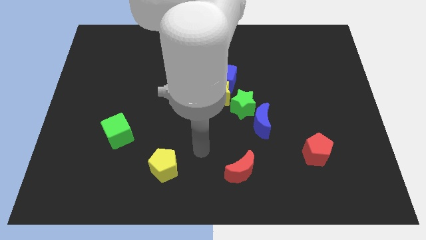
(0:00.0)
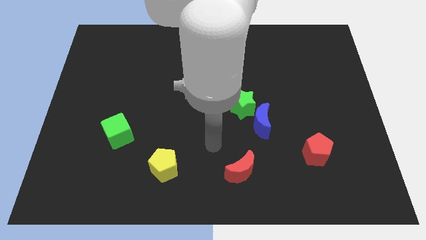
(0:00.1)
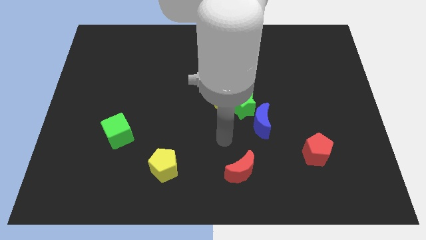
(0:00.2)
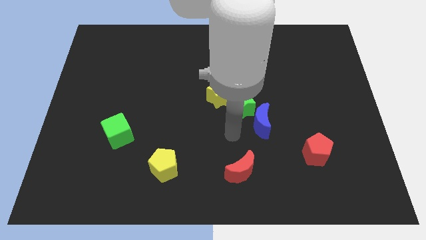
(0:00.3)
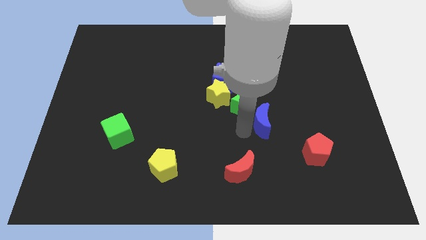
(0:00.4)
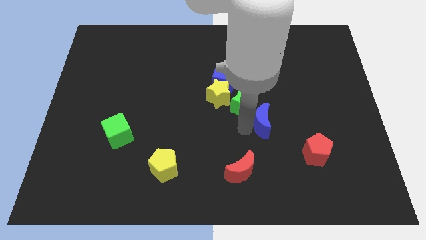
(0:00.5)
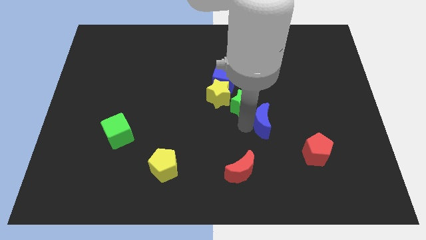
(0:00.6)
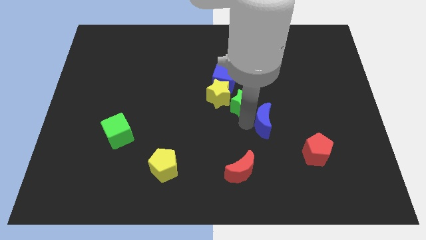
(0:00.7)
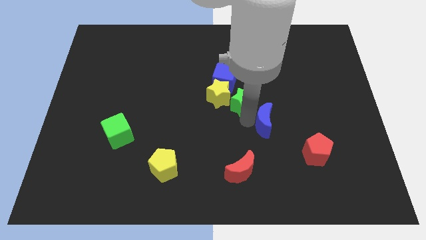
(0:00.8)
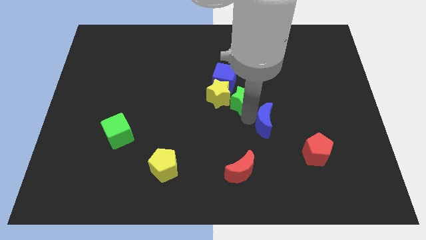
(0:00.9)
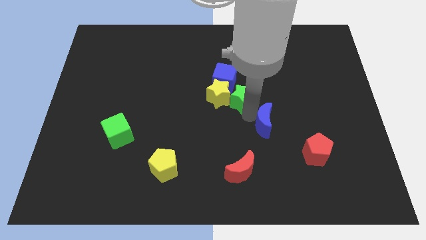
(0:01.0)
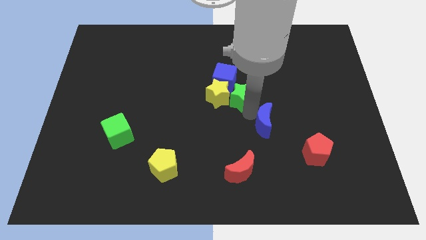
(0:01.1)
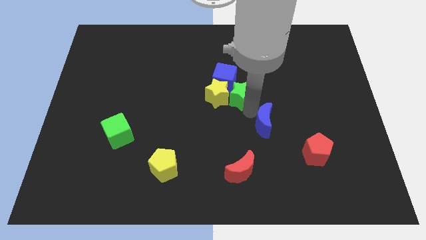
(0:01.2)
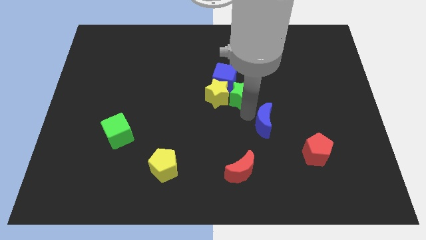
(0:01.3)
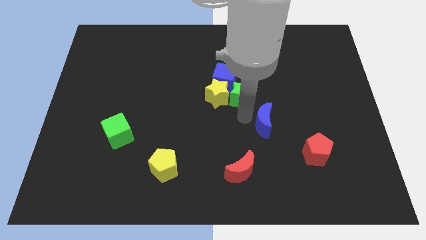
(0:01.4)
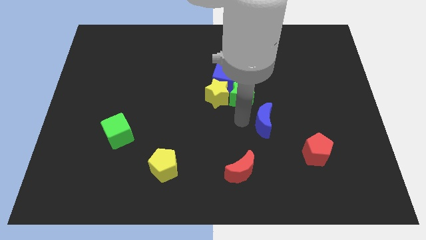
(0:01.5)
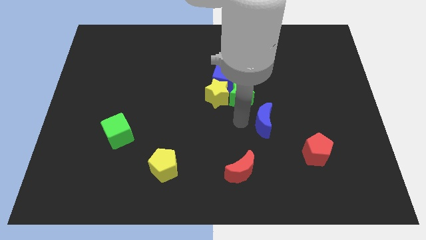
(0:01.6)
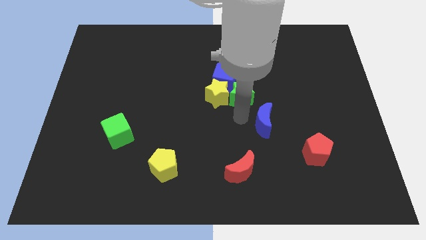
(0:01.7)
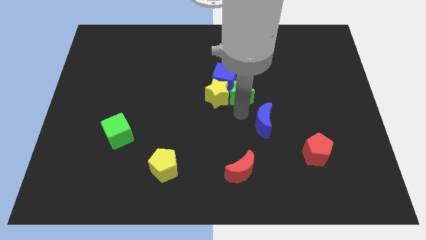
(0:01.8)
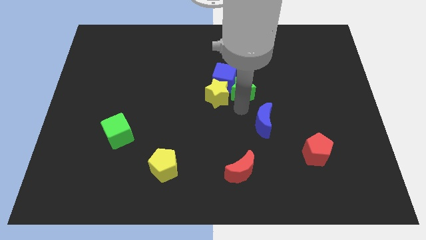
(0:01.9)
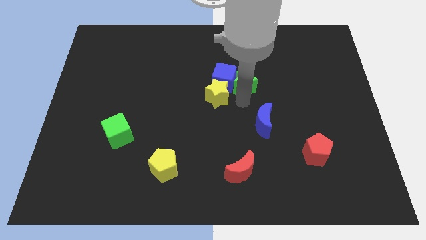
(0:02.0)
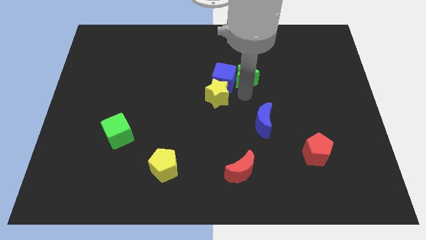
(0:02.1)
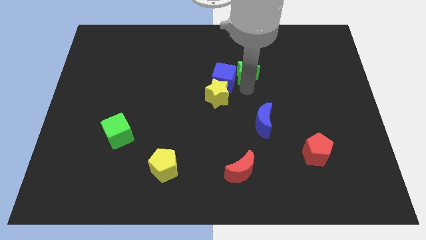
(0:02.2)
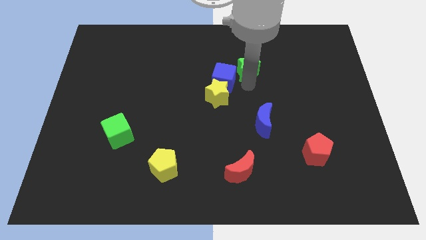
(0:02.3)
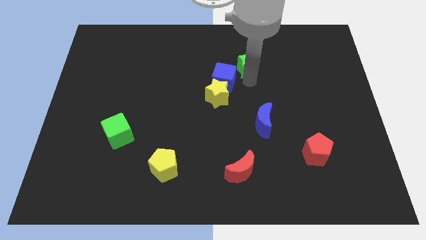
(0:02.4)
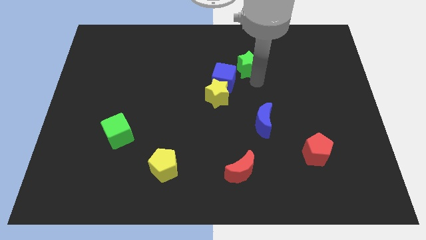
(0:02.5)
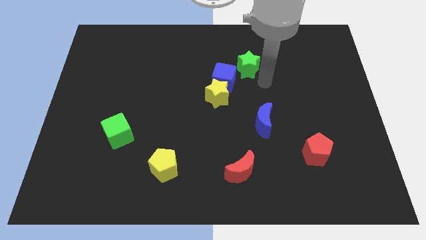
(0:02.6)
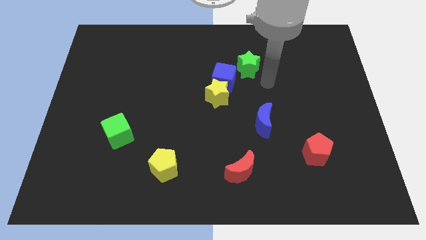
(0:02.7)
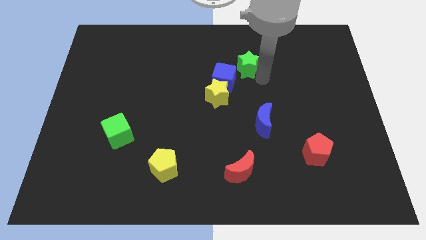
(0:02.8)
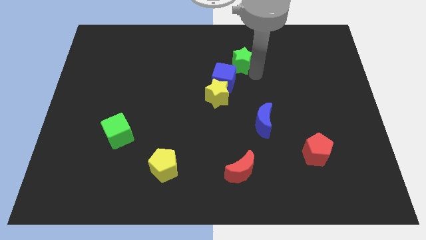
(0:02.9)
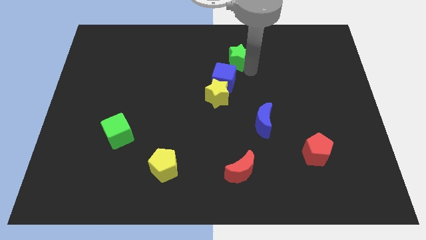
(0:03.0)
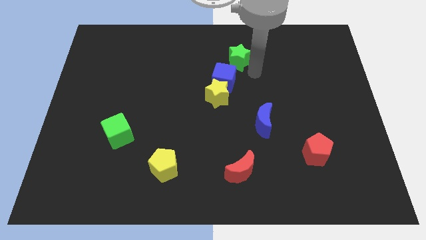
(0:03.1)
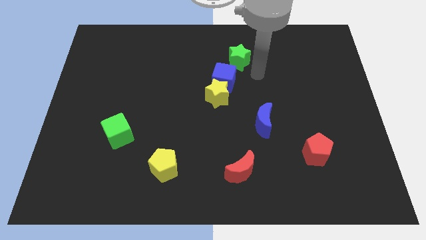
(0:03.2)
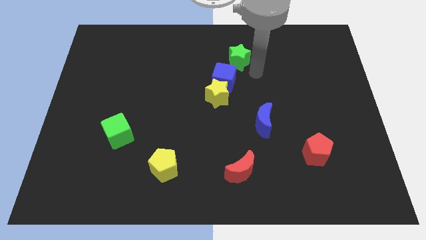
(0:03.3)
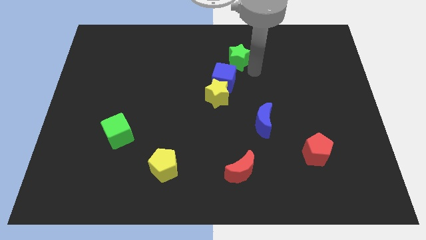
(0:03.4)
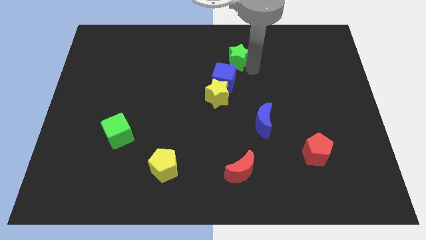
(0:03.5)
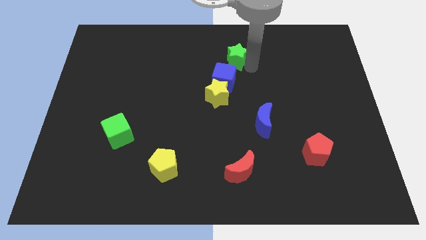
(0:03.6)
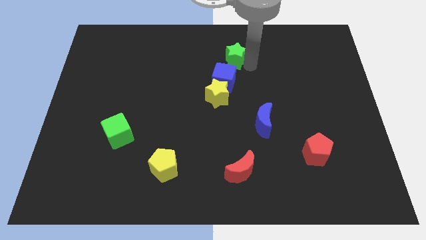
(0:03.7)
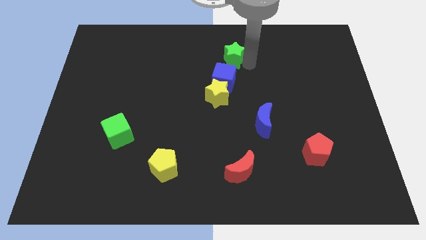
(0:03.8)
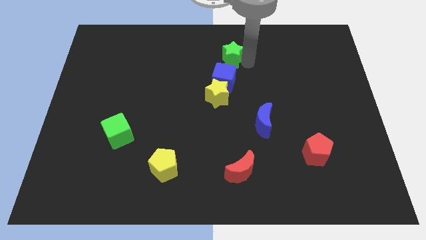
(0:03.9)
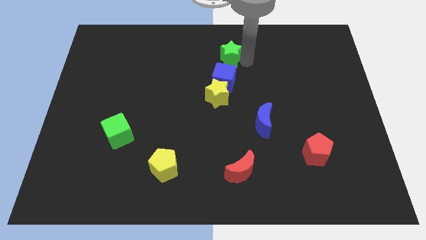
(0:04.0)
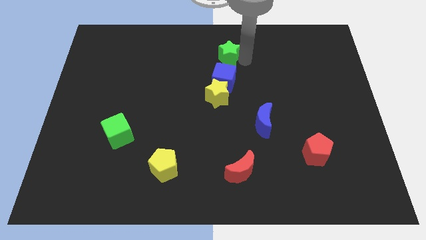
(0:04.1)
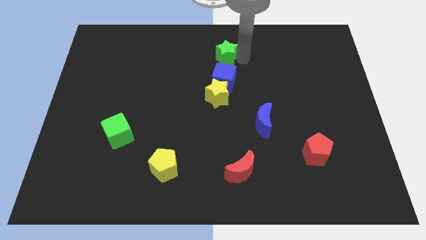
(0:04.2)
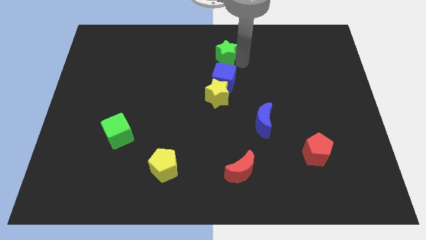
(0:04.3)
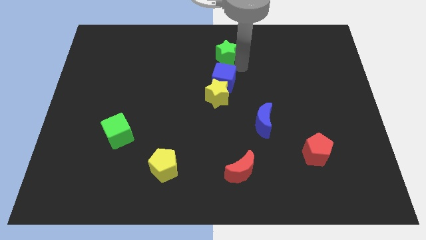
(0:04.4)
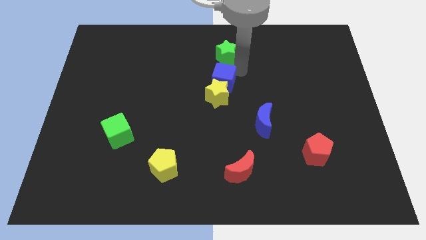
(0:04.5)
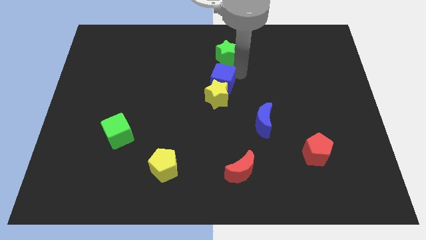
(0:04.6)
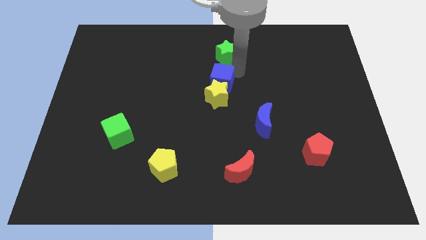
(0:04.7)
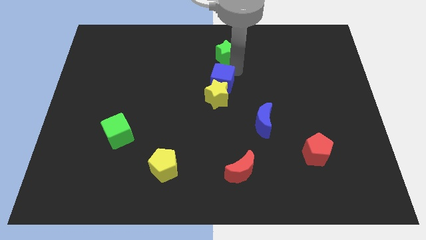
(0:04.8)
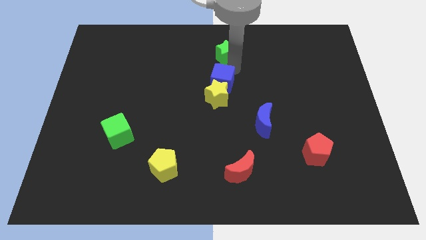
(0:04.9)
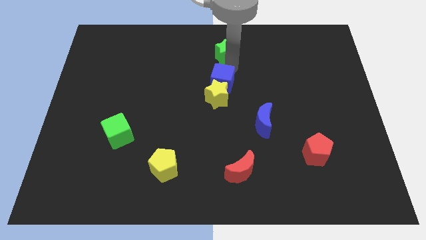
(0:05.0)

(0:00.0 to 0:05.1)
move the green star to the top
